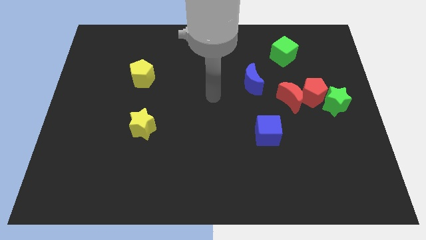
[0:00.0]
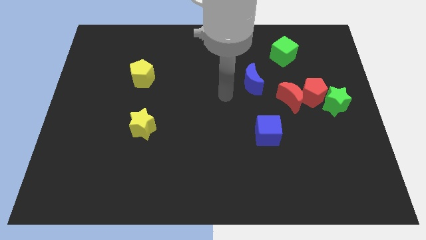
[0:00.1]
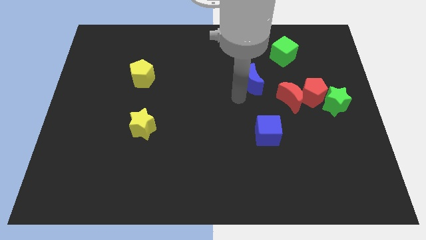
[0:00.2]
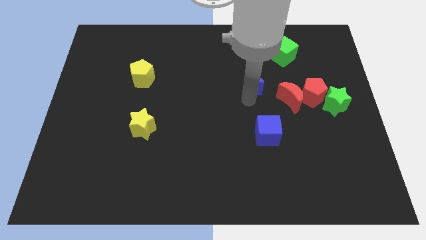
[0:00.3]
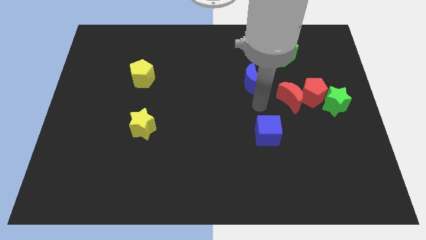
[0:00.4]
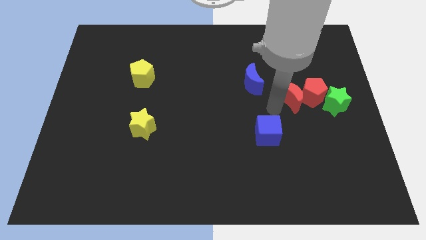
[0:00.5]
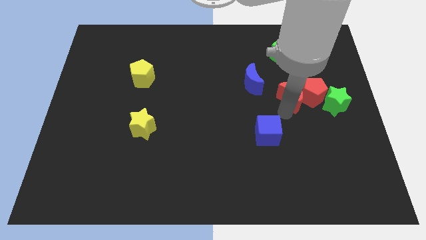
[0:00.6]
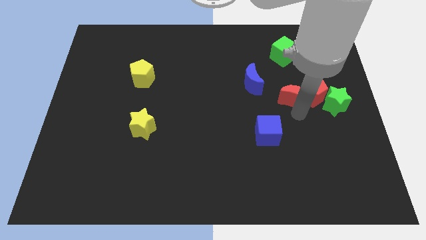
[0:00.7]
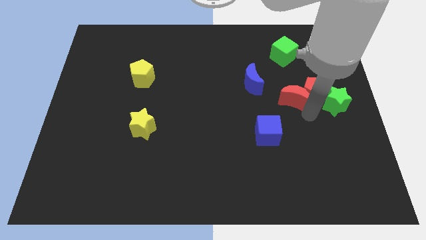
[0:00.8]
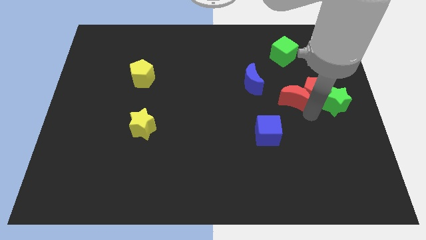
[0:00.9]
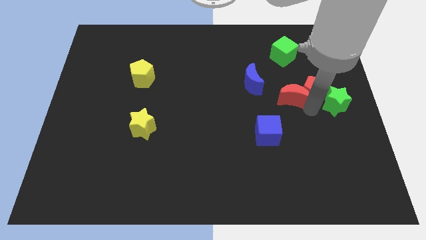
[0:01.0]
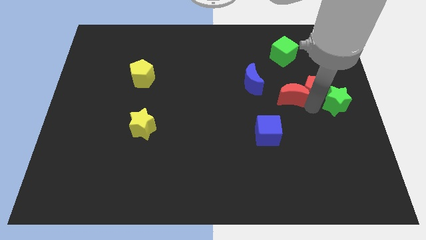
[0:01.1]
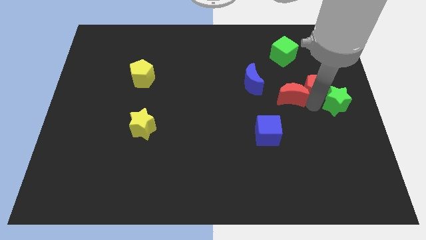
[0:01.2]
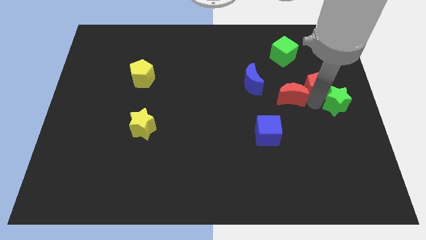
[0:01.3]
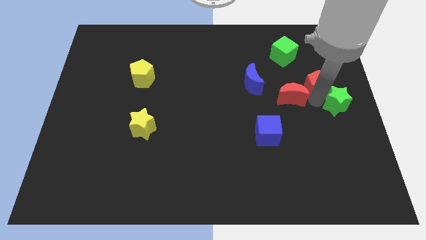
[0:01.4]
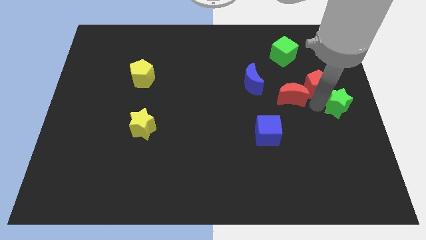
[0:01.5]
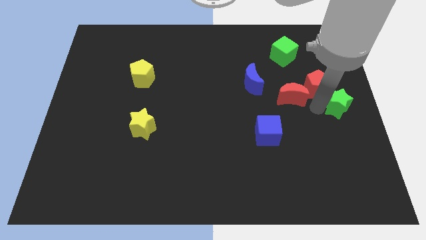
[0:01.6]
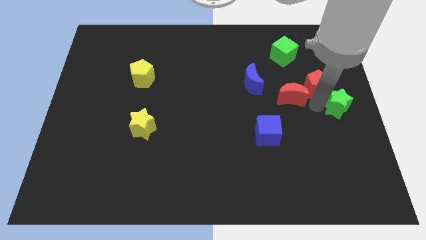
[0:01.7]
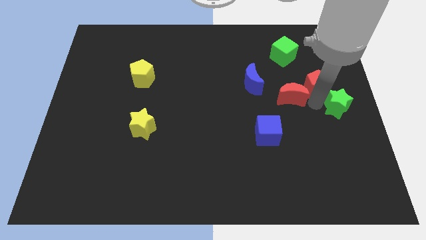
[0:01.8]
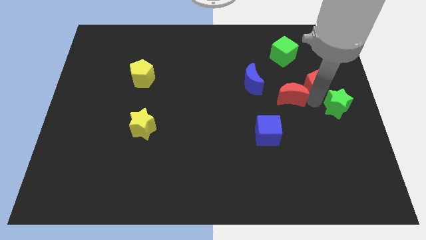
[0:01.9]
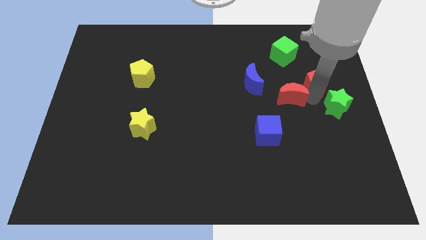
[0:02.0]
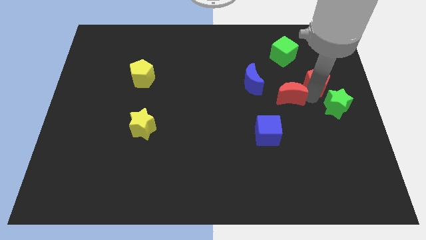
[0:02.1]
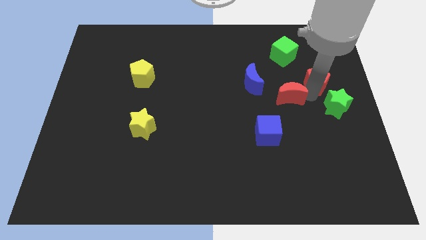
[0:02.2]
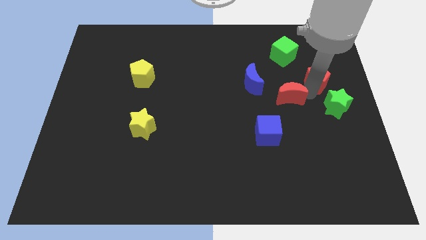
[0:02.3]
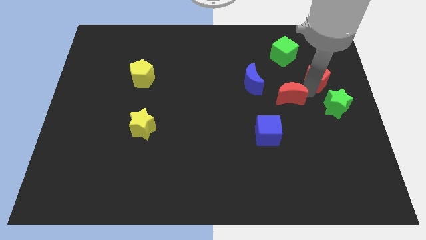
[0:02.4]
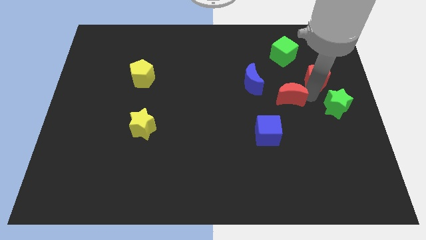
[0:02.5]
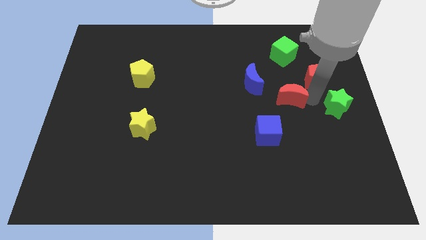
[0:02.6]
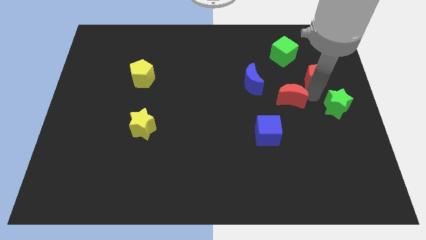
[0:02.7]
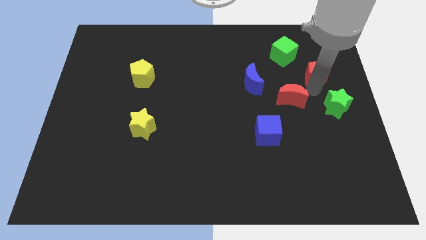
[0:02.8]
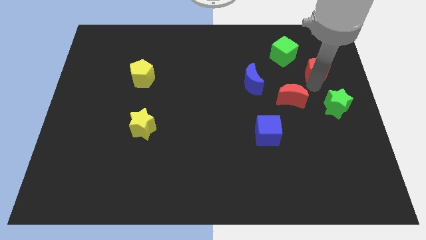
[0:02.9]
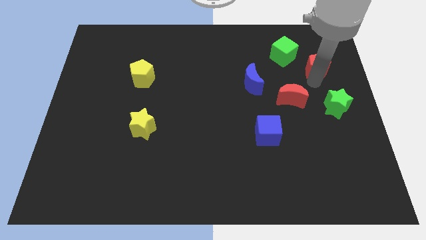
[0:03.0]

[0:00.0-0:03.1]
pull the red pentagon apart from the red moon and green star

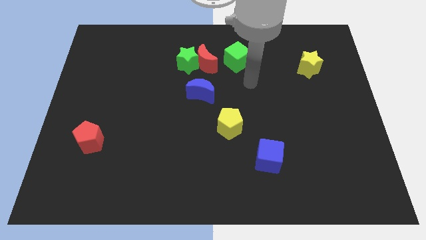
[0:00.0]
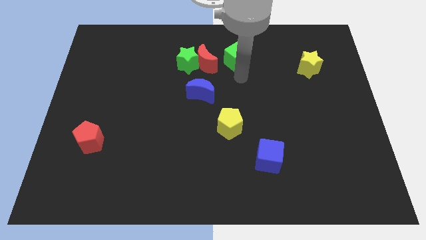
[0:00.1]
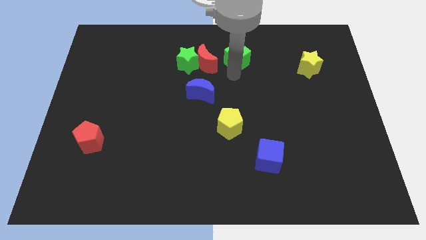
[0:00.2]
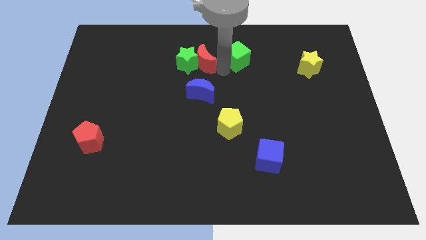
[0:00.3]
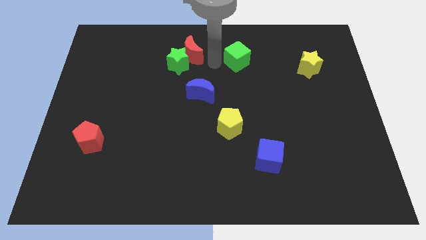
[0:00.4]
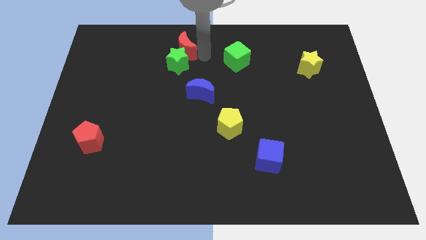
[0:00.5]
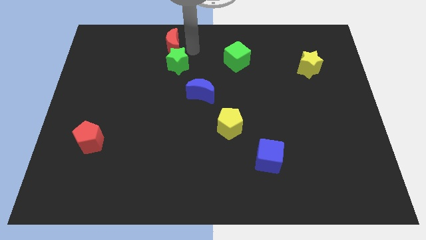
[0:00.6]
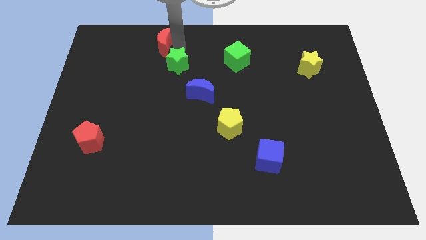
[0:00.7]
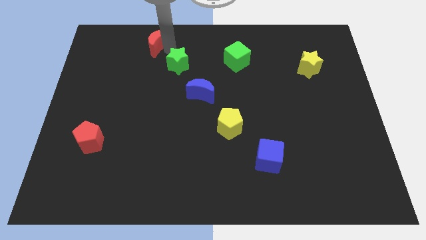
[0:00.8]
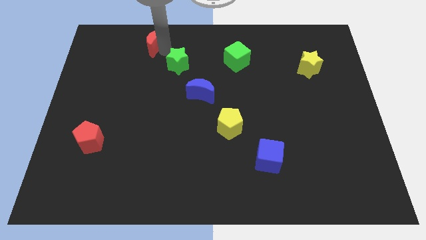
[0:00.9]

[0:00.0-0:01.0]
separate the green star from the red moon

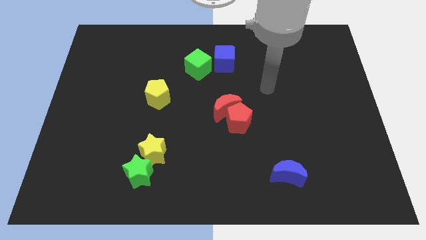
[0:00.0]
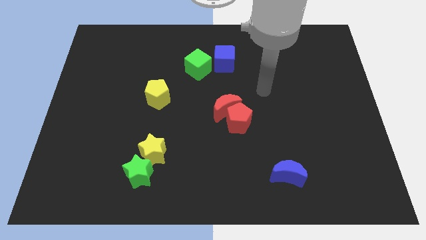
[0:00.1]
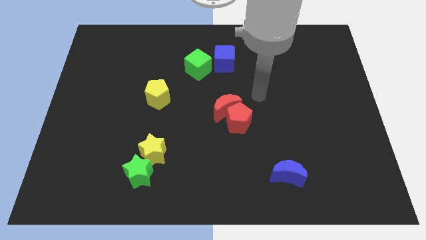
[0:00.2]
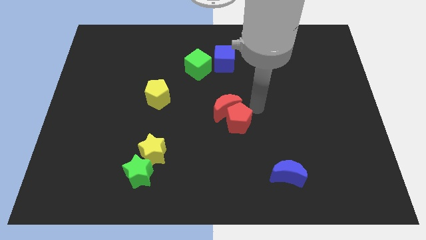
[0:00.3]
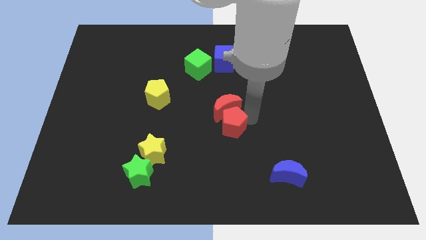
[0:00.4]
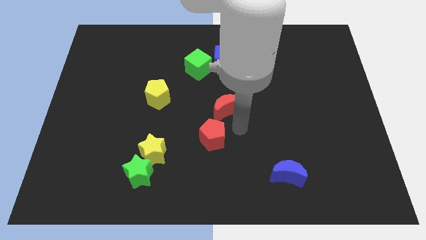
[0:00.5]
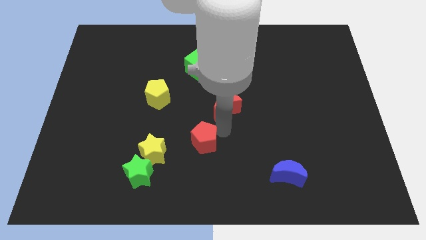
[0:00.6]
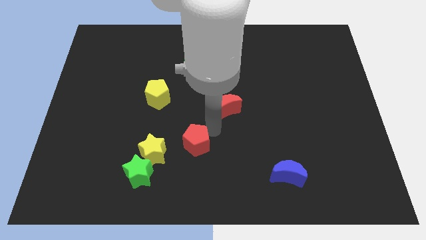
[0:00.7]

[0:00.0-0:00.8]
move the red moon away from the red pentagon

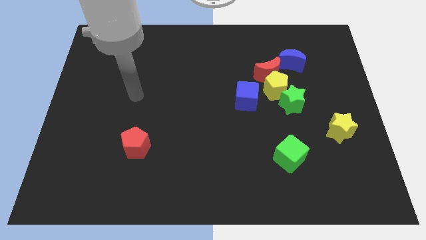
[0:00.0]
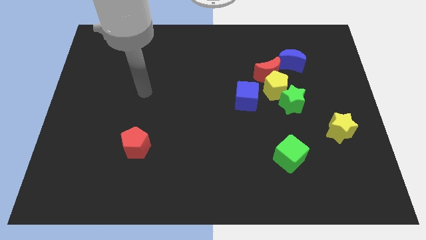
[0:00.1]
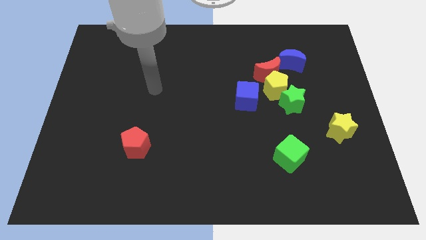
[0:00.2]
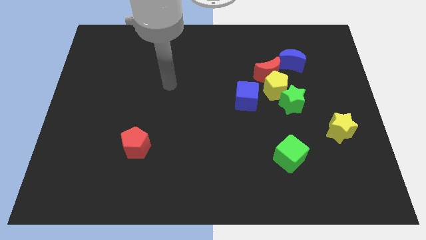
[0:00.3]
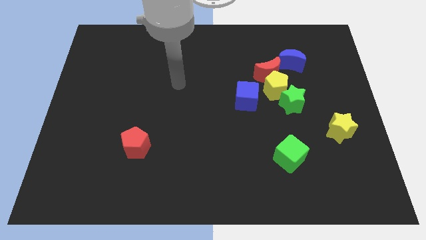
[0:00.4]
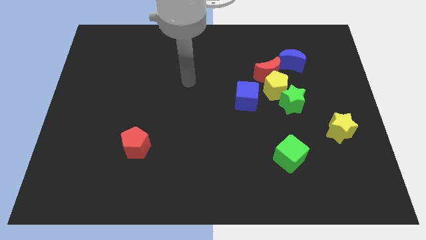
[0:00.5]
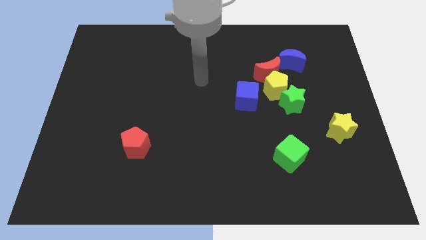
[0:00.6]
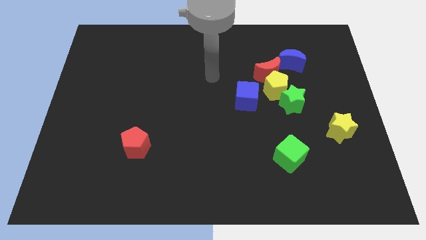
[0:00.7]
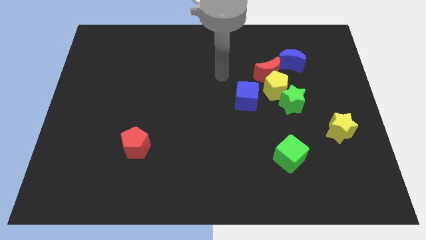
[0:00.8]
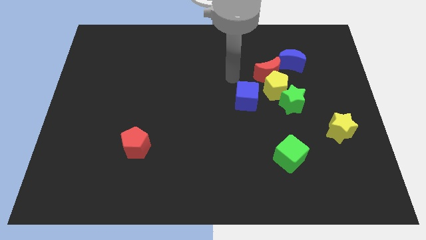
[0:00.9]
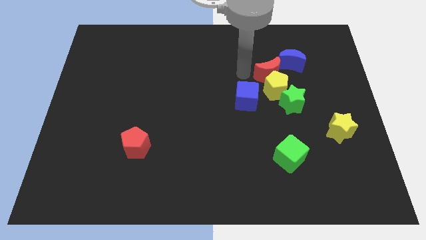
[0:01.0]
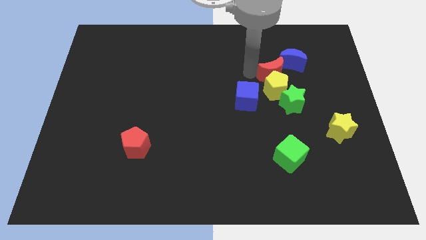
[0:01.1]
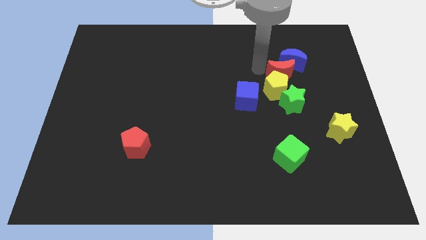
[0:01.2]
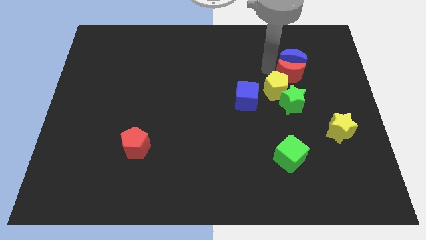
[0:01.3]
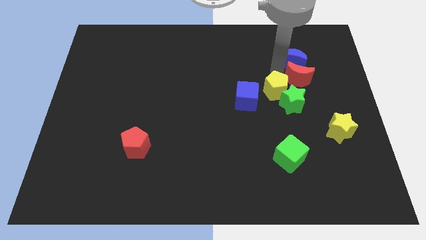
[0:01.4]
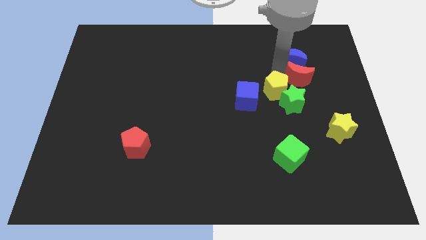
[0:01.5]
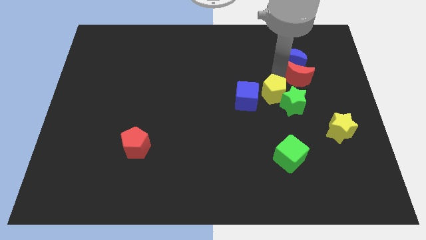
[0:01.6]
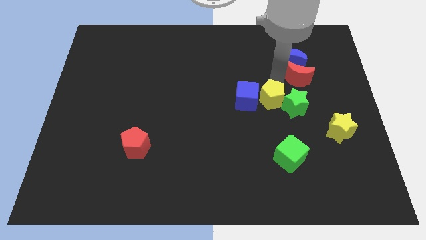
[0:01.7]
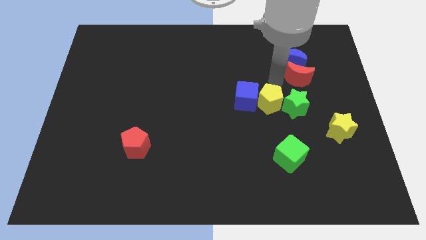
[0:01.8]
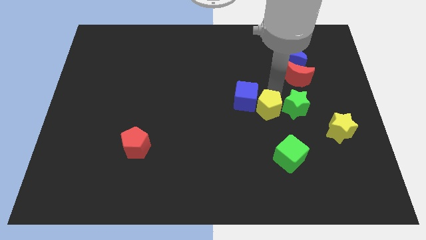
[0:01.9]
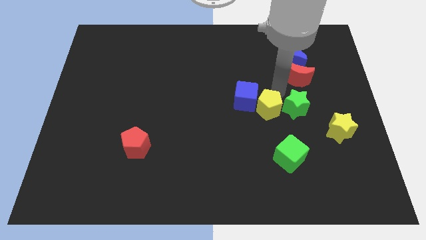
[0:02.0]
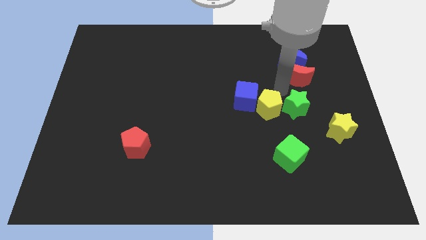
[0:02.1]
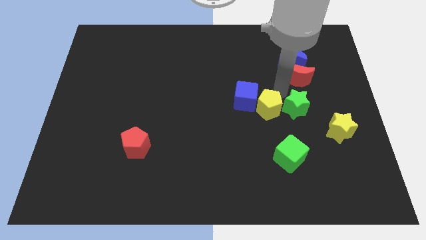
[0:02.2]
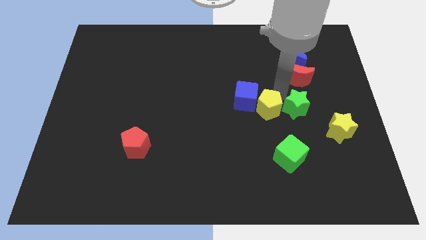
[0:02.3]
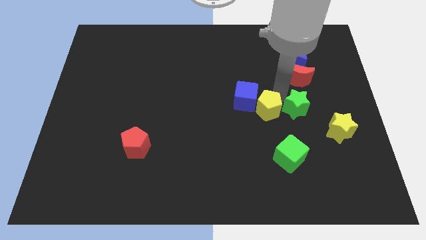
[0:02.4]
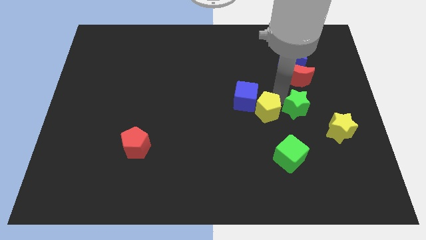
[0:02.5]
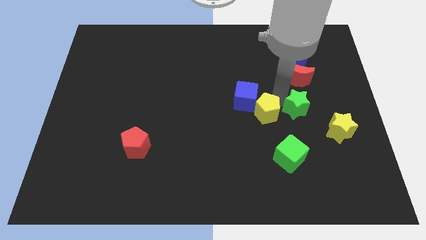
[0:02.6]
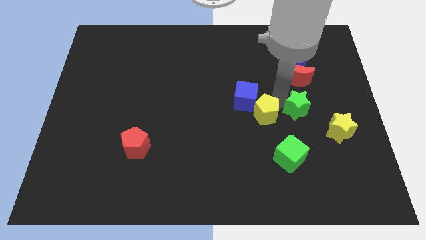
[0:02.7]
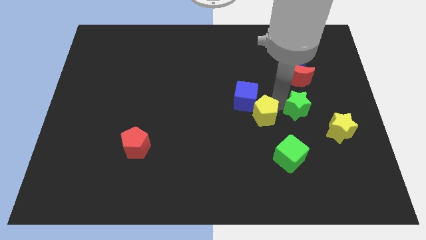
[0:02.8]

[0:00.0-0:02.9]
move the yellow pentagon away from the group of blocks

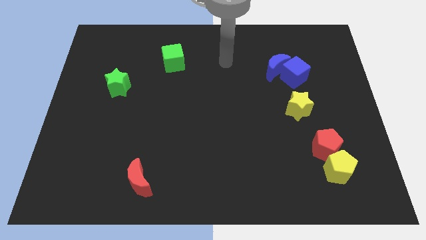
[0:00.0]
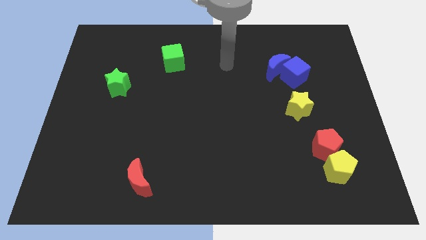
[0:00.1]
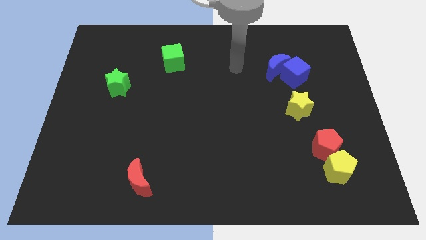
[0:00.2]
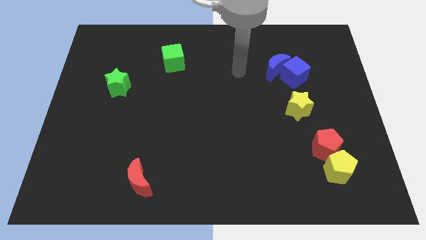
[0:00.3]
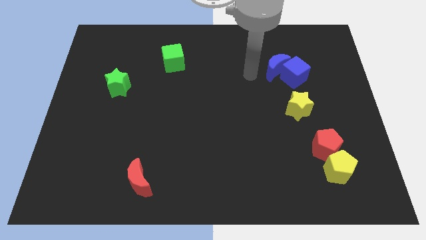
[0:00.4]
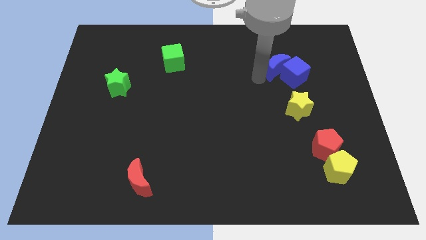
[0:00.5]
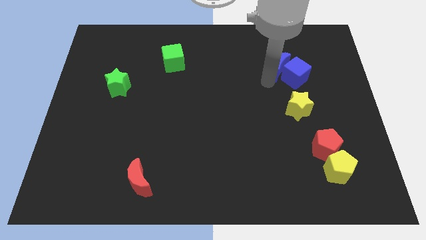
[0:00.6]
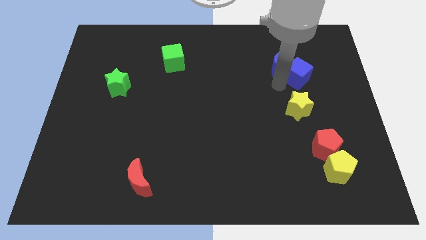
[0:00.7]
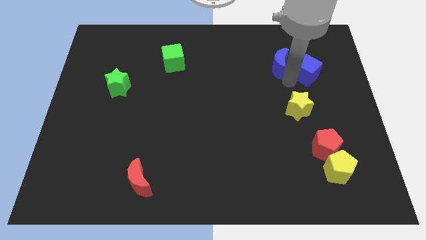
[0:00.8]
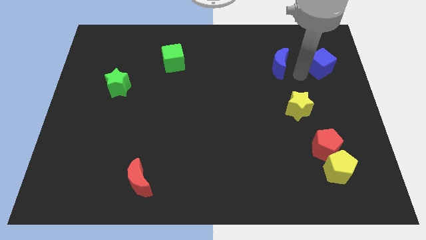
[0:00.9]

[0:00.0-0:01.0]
pull the blue moon apart from the blue cube

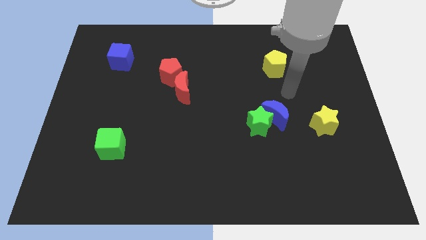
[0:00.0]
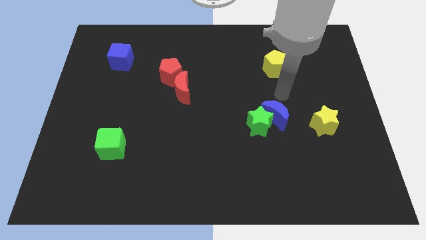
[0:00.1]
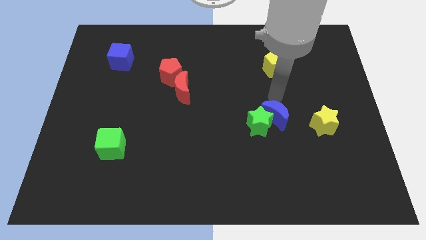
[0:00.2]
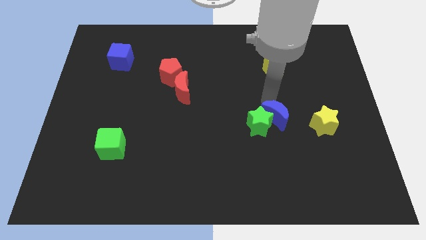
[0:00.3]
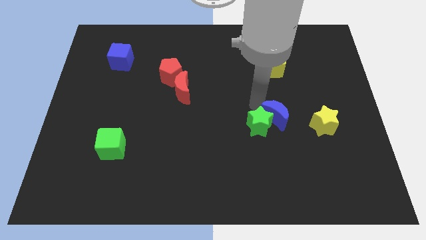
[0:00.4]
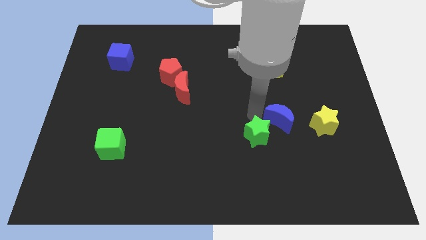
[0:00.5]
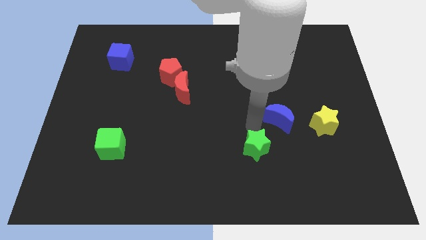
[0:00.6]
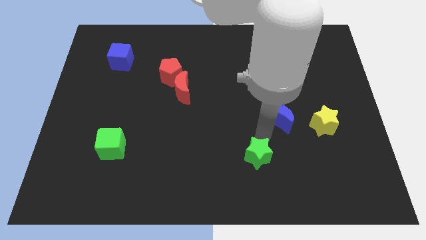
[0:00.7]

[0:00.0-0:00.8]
separate the blue moon from the green star
